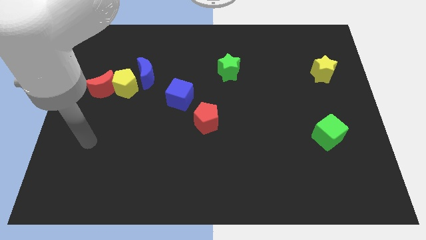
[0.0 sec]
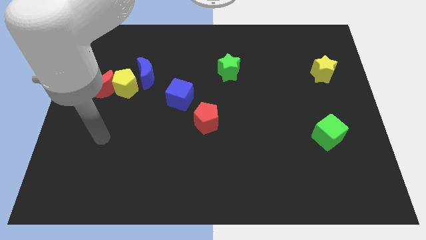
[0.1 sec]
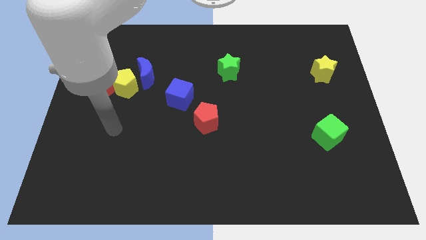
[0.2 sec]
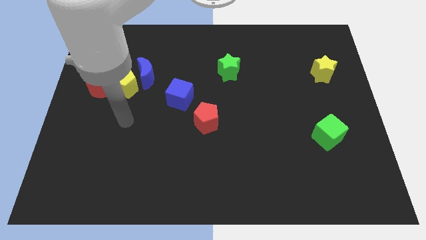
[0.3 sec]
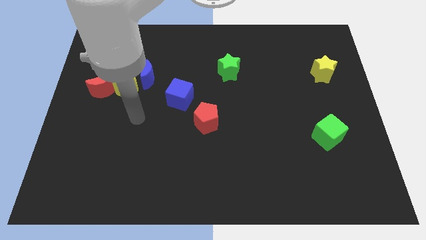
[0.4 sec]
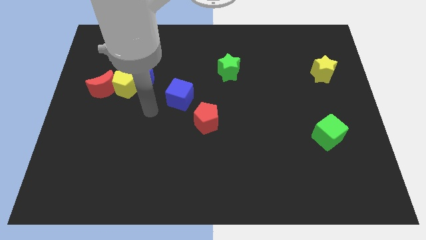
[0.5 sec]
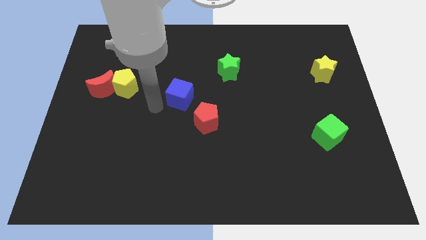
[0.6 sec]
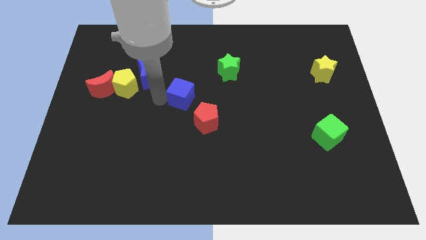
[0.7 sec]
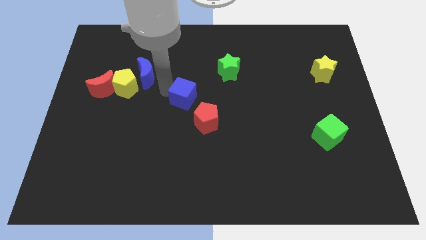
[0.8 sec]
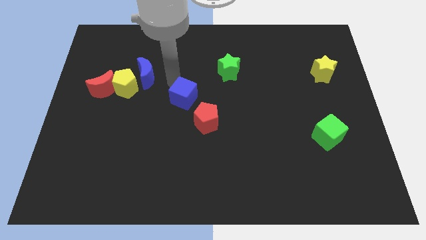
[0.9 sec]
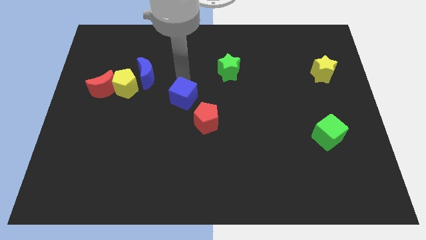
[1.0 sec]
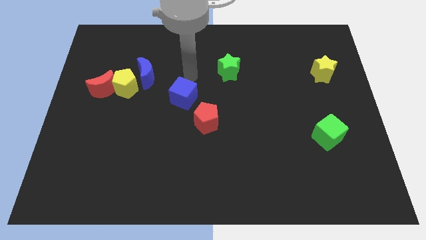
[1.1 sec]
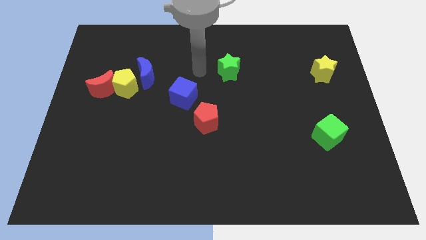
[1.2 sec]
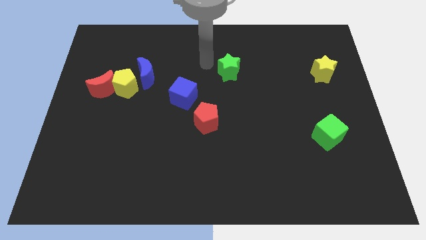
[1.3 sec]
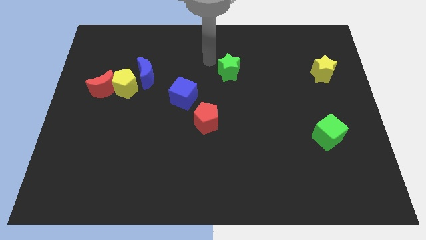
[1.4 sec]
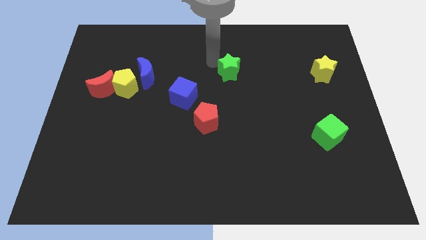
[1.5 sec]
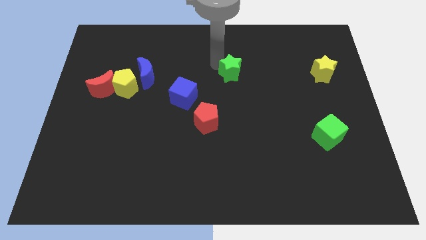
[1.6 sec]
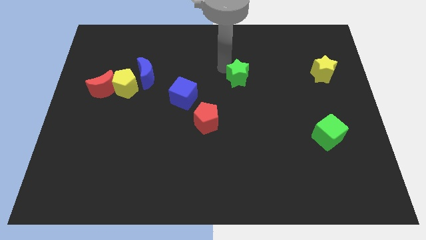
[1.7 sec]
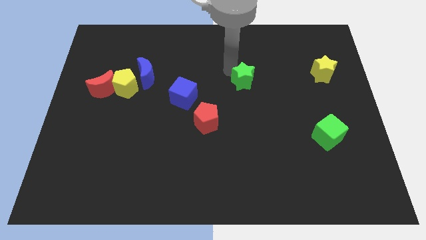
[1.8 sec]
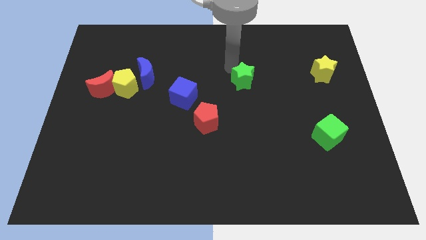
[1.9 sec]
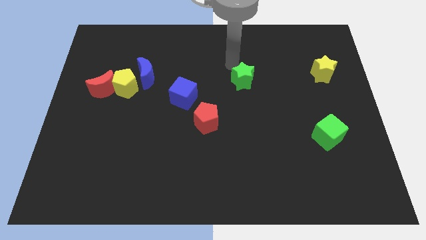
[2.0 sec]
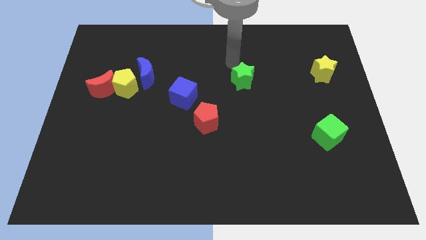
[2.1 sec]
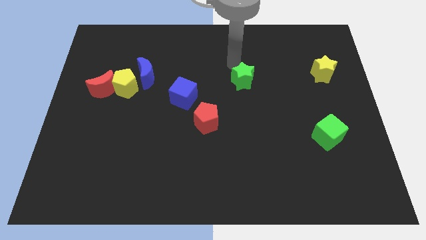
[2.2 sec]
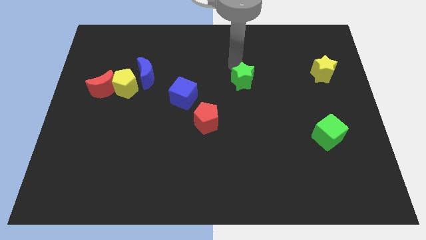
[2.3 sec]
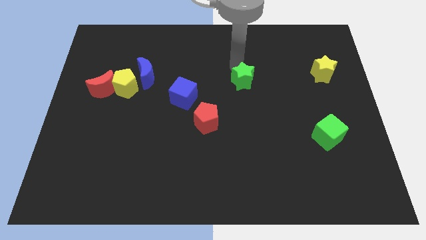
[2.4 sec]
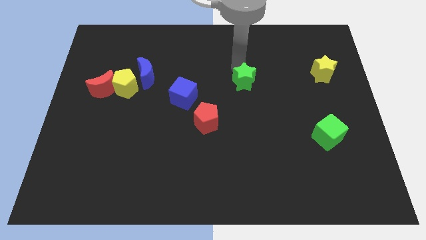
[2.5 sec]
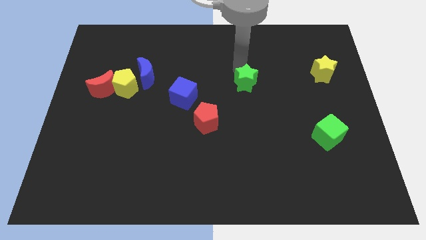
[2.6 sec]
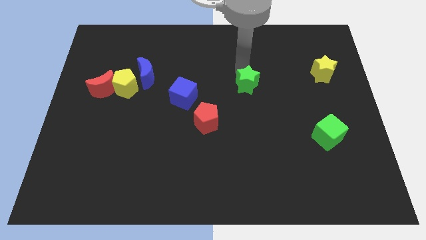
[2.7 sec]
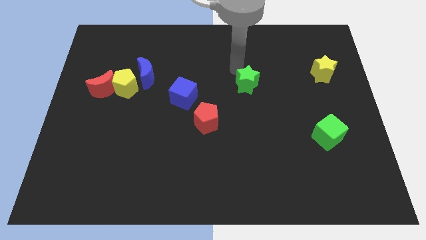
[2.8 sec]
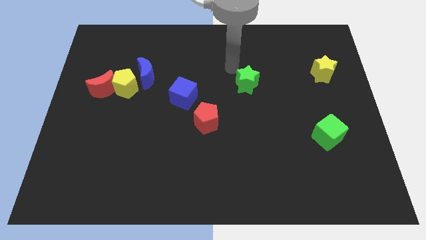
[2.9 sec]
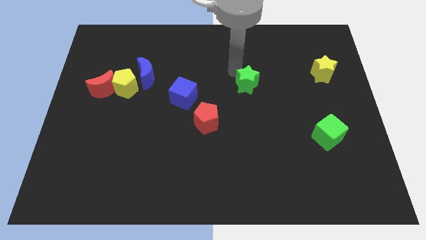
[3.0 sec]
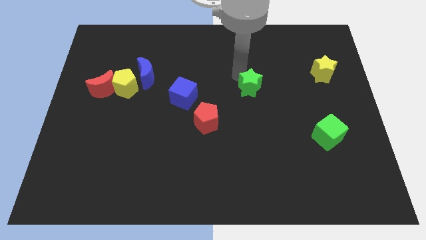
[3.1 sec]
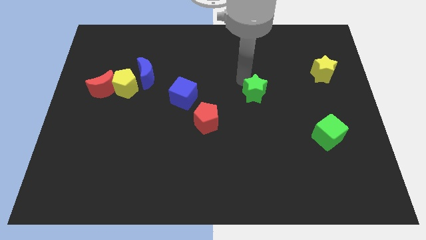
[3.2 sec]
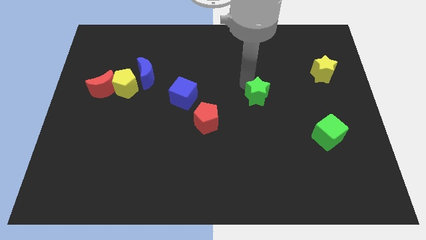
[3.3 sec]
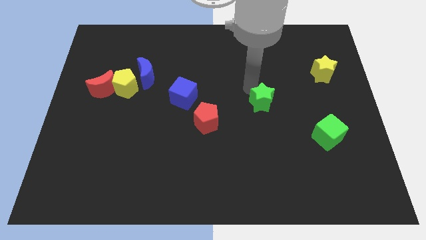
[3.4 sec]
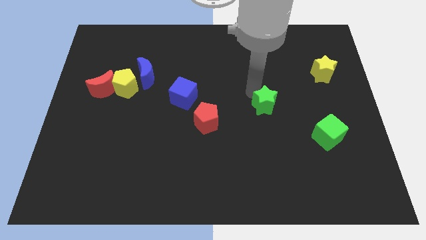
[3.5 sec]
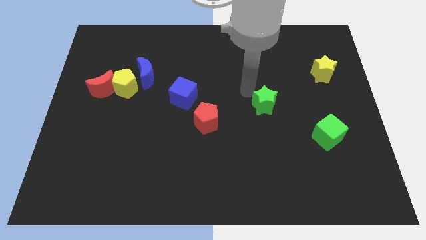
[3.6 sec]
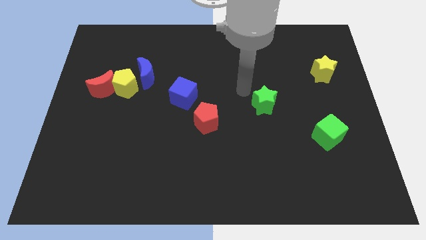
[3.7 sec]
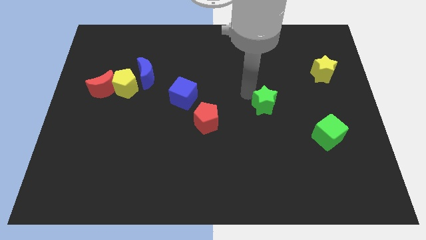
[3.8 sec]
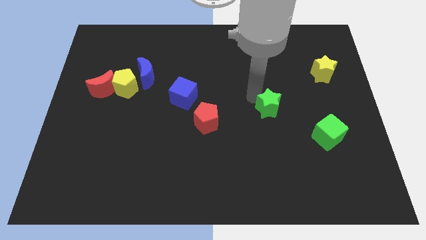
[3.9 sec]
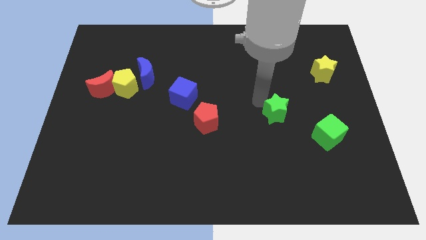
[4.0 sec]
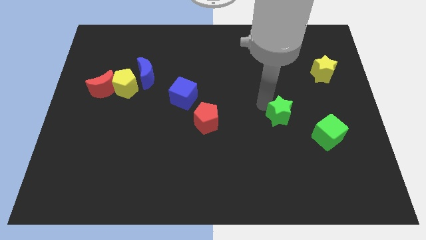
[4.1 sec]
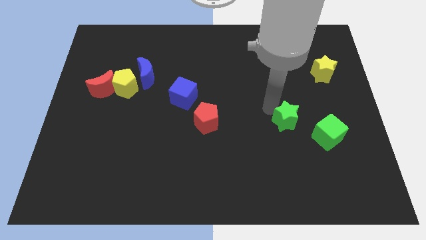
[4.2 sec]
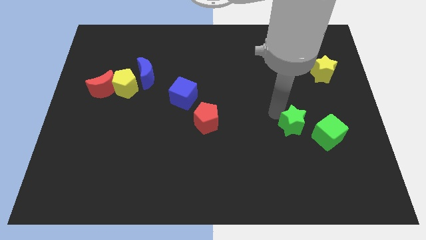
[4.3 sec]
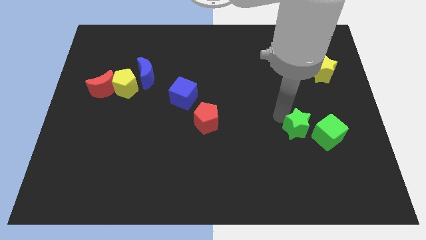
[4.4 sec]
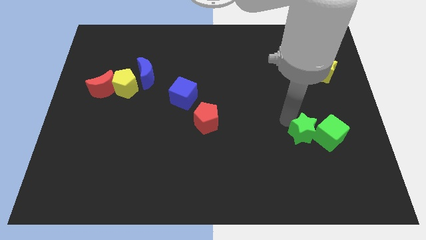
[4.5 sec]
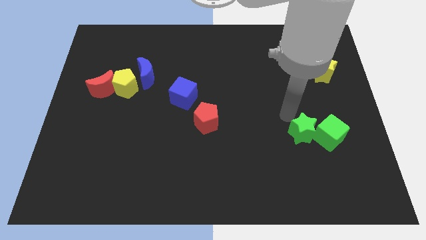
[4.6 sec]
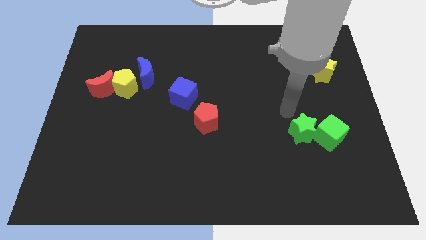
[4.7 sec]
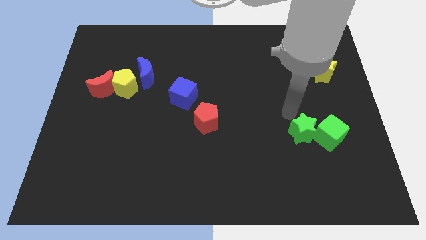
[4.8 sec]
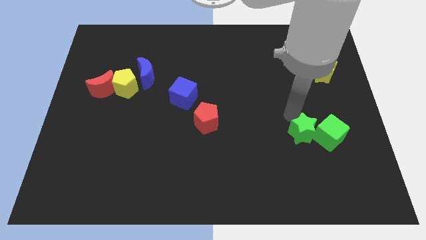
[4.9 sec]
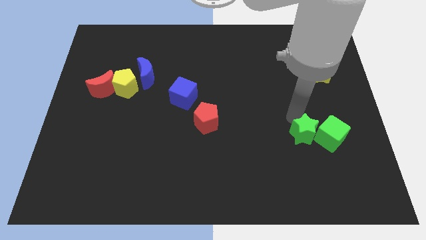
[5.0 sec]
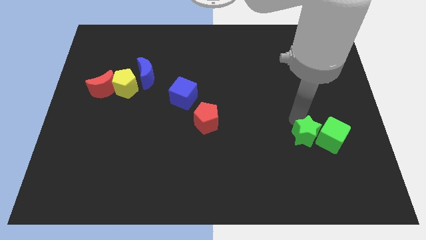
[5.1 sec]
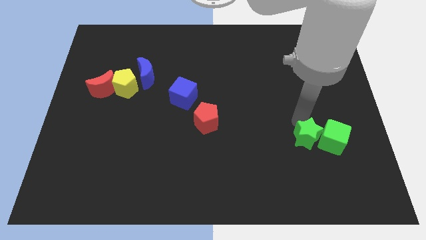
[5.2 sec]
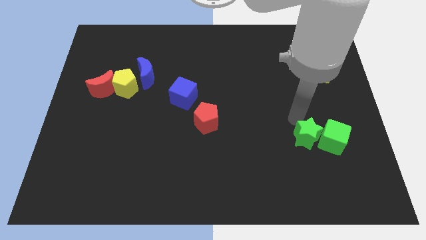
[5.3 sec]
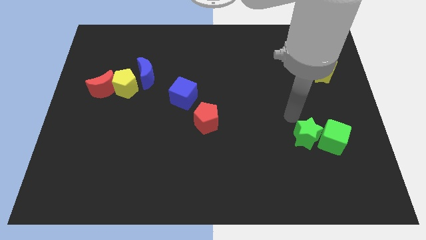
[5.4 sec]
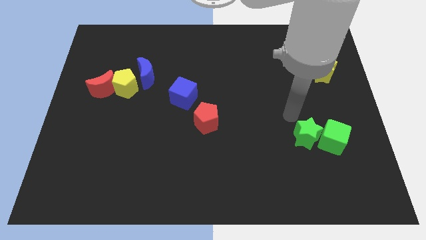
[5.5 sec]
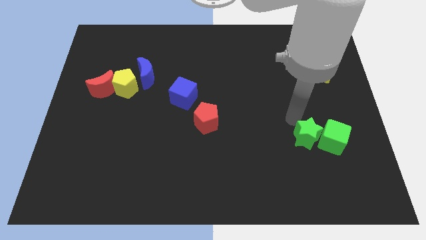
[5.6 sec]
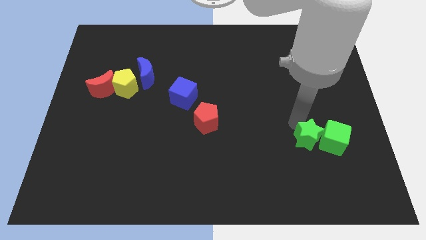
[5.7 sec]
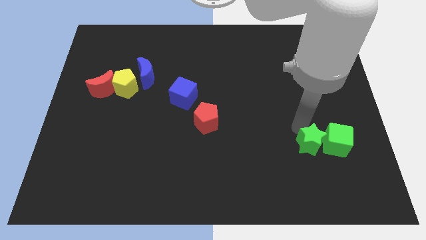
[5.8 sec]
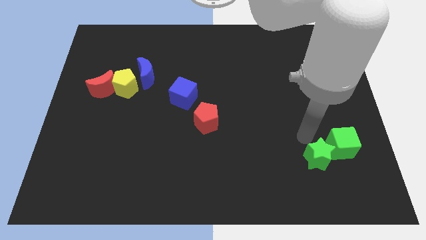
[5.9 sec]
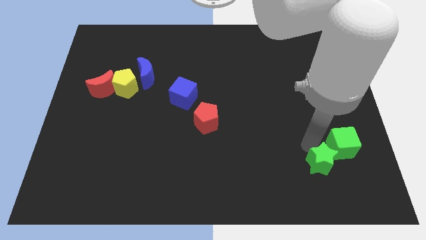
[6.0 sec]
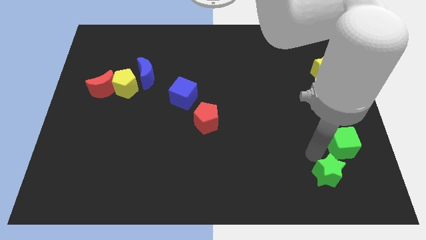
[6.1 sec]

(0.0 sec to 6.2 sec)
move the green star to the bottom of the green cube
